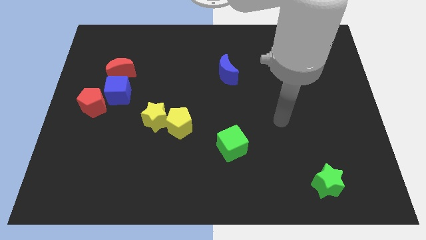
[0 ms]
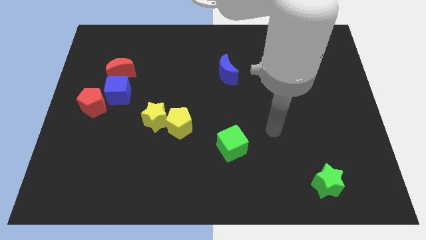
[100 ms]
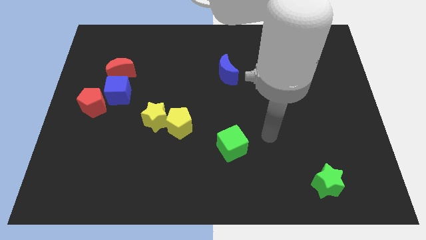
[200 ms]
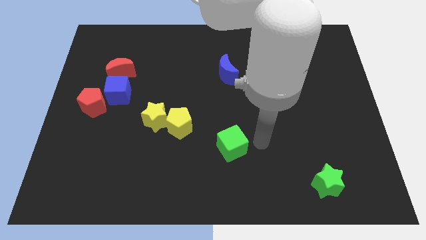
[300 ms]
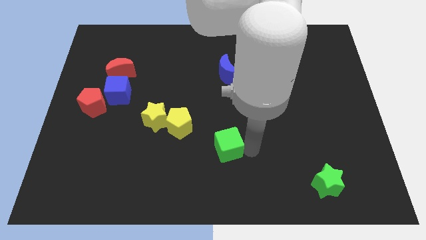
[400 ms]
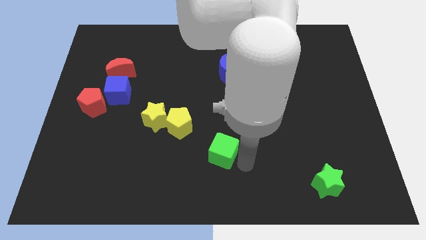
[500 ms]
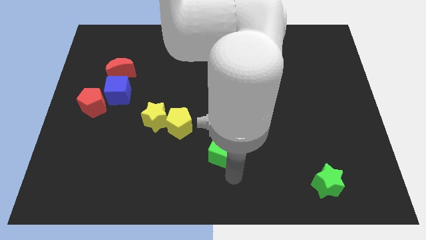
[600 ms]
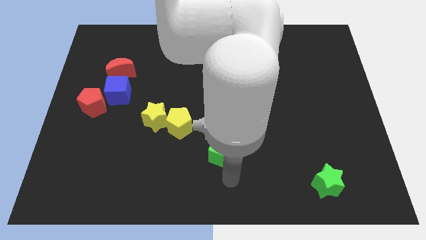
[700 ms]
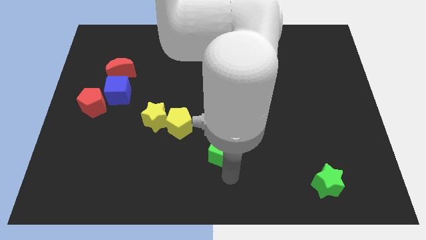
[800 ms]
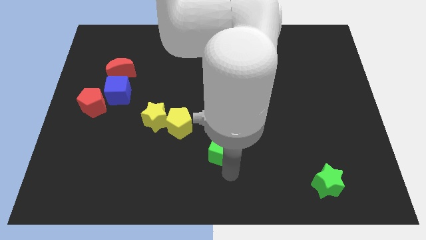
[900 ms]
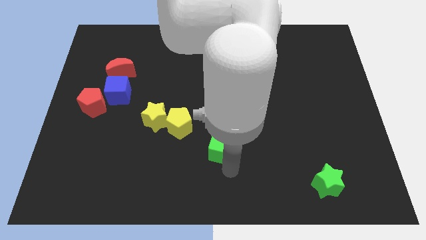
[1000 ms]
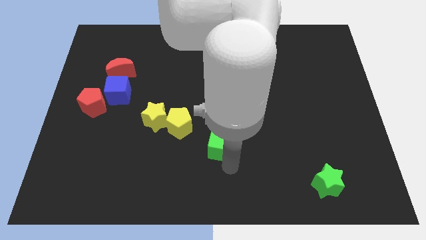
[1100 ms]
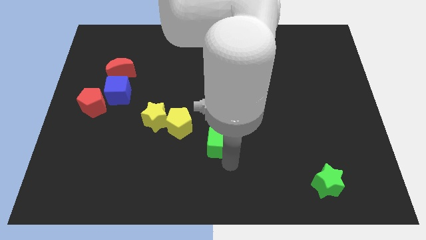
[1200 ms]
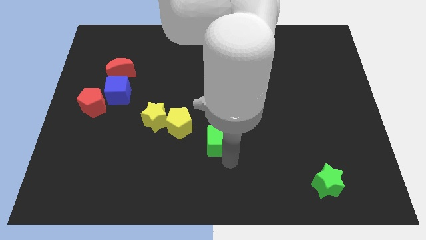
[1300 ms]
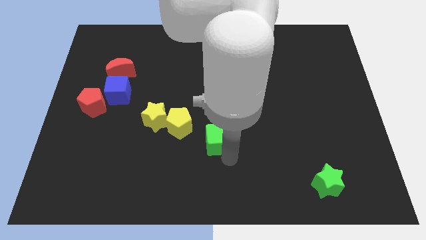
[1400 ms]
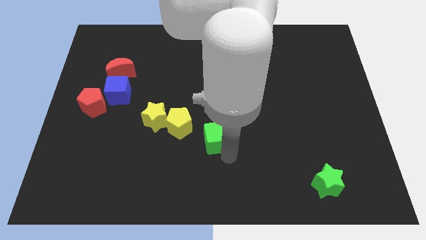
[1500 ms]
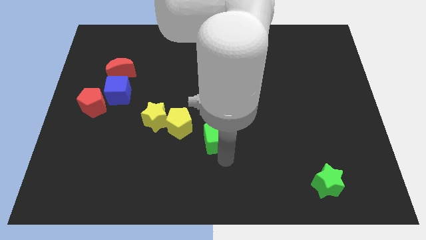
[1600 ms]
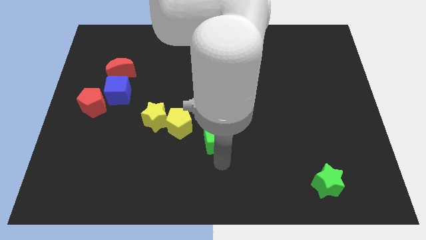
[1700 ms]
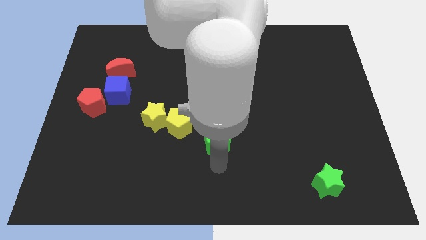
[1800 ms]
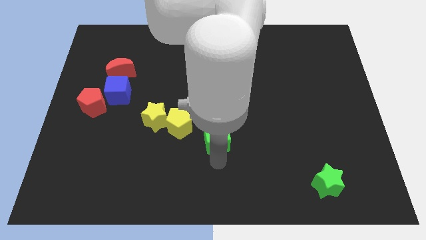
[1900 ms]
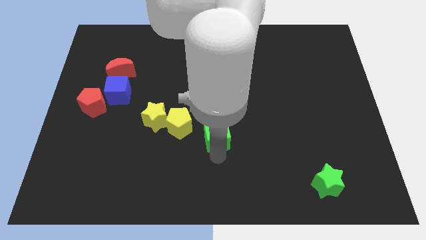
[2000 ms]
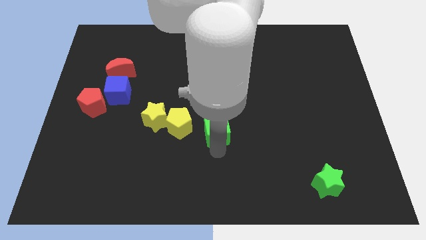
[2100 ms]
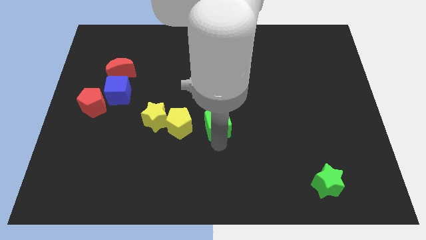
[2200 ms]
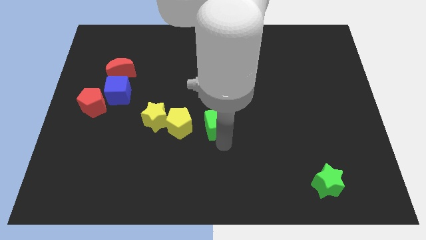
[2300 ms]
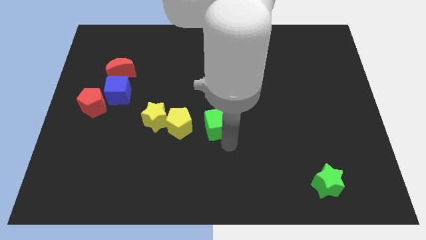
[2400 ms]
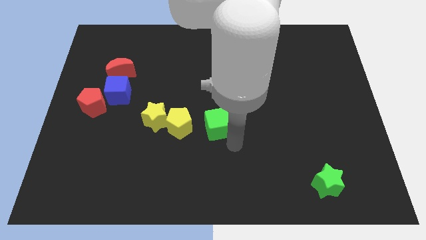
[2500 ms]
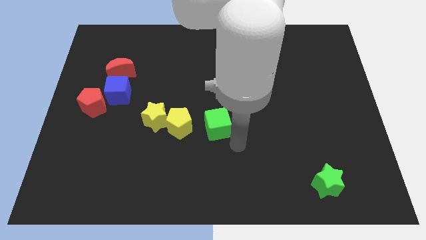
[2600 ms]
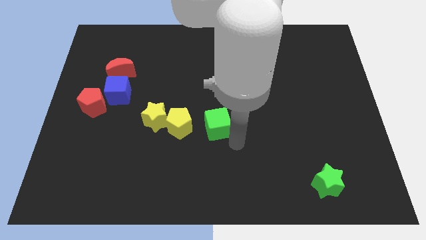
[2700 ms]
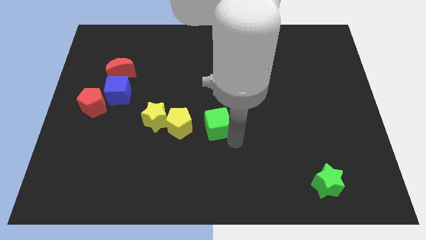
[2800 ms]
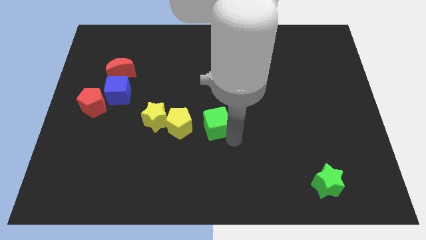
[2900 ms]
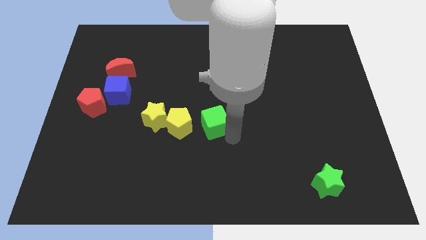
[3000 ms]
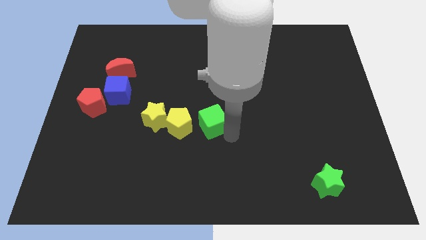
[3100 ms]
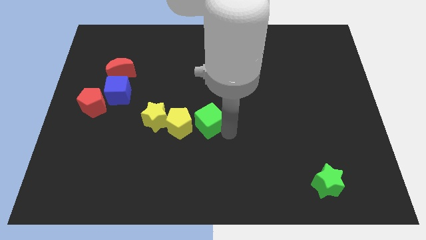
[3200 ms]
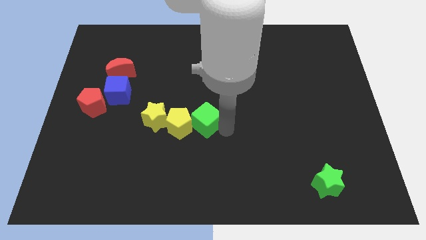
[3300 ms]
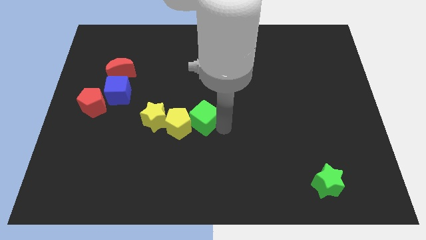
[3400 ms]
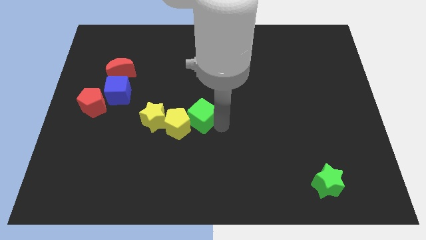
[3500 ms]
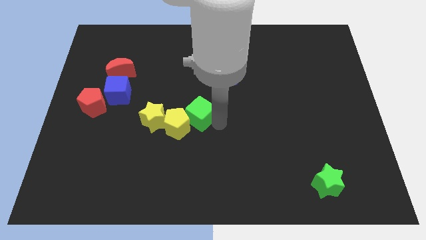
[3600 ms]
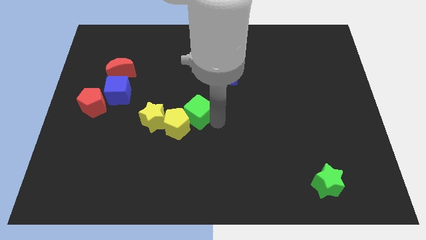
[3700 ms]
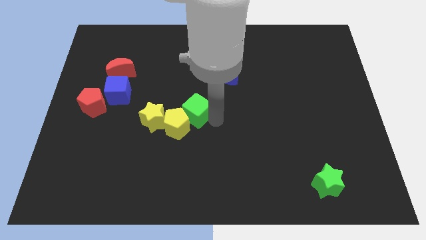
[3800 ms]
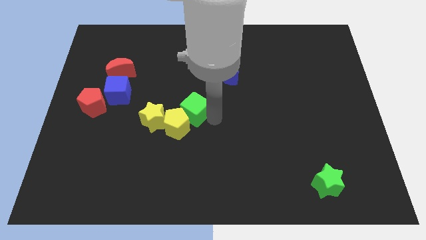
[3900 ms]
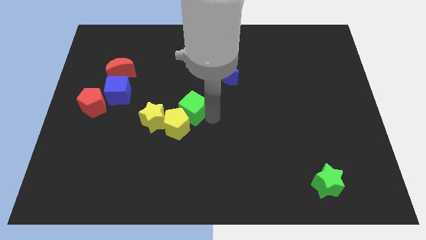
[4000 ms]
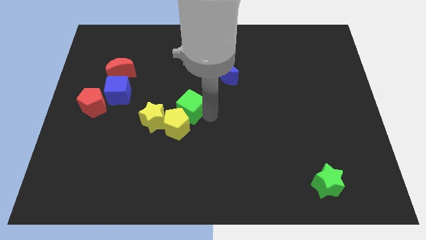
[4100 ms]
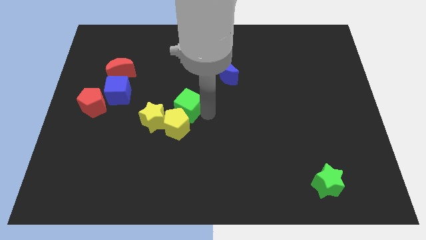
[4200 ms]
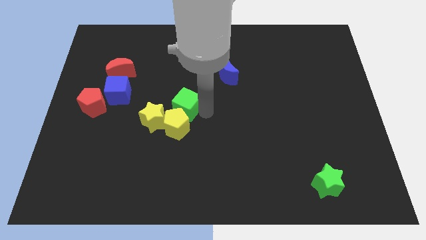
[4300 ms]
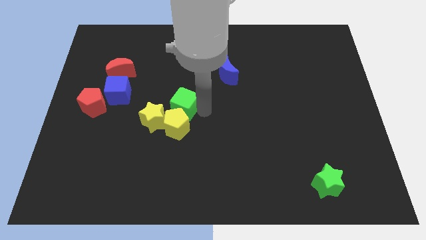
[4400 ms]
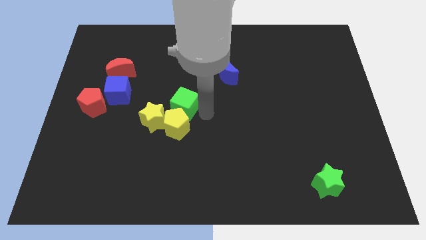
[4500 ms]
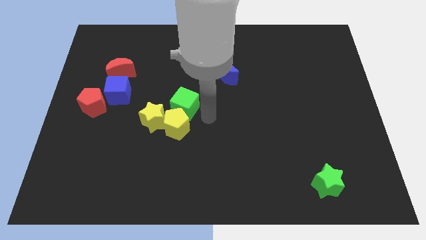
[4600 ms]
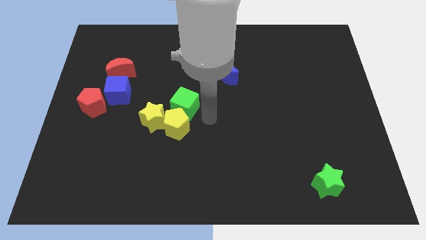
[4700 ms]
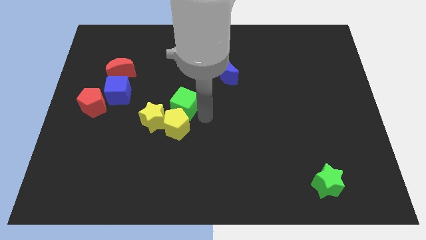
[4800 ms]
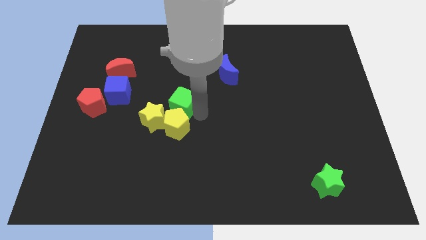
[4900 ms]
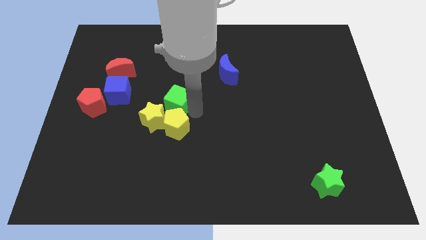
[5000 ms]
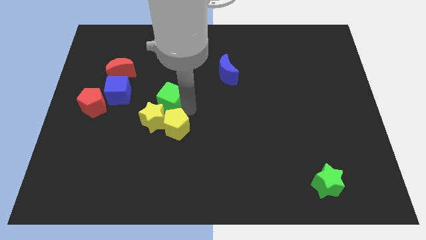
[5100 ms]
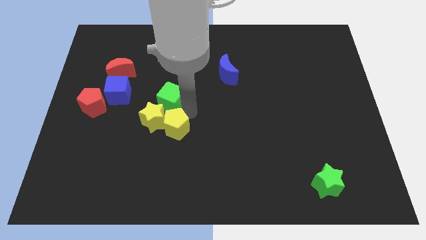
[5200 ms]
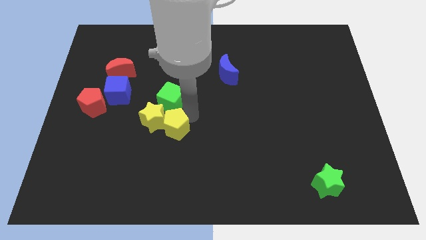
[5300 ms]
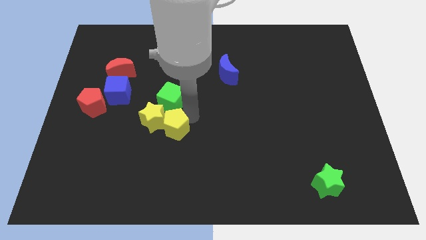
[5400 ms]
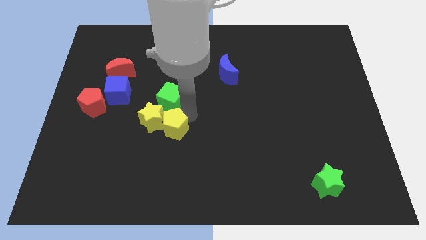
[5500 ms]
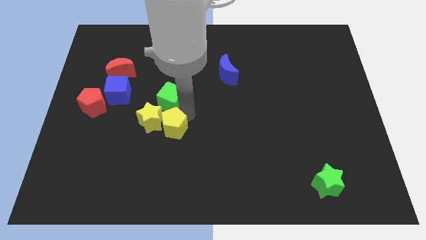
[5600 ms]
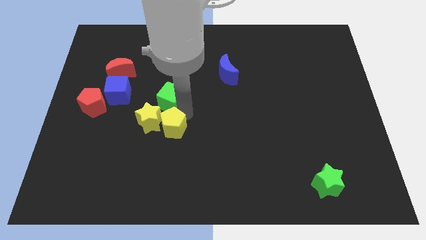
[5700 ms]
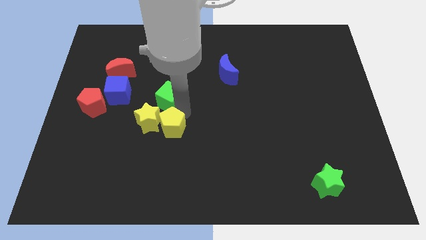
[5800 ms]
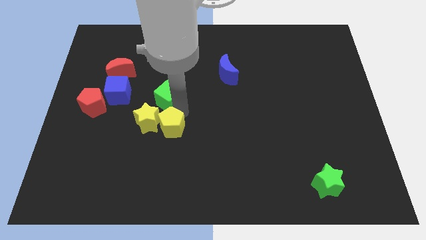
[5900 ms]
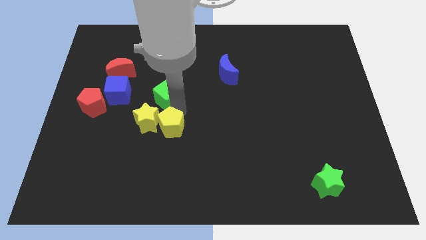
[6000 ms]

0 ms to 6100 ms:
move the green cube upwards and to the left

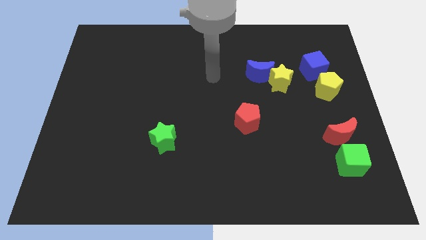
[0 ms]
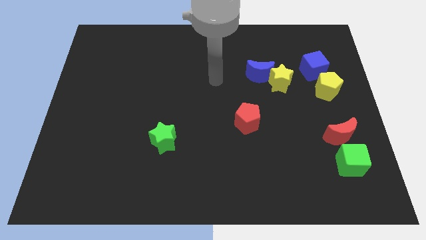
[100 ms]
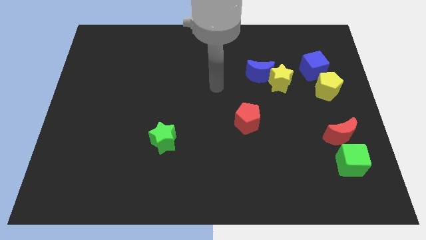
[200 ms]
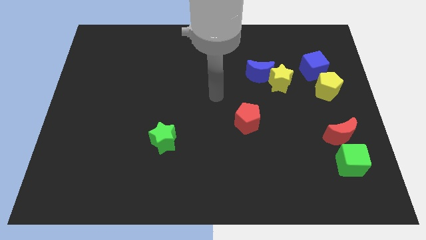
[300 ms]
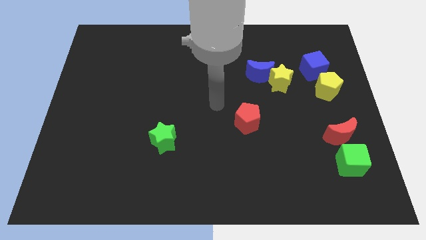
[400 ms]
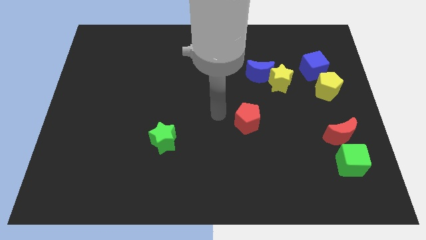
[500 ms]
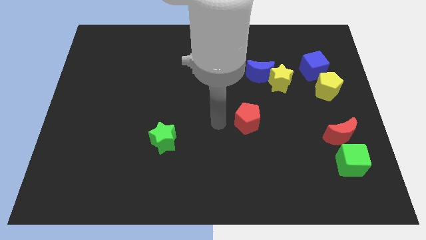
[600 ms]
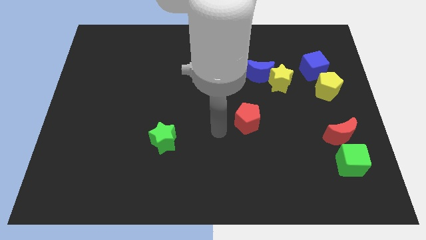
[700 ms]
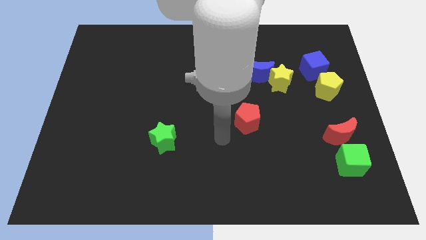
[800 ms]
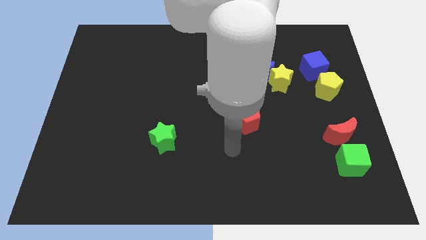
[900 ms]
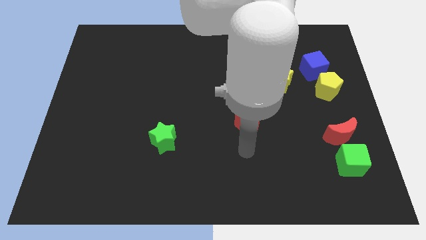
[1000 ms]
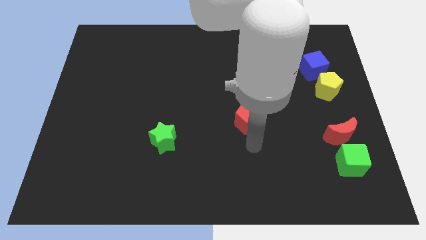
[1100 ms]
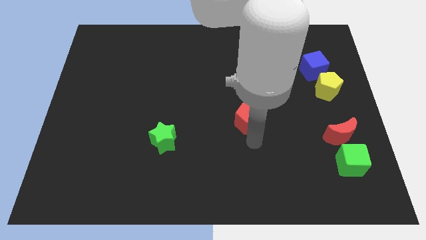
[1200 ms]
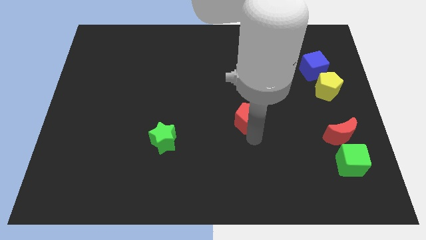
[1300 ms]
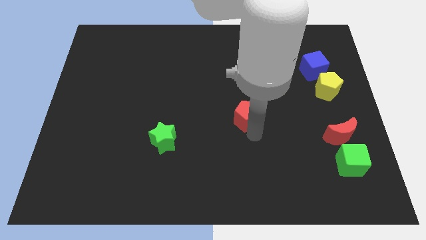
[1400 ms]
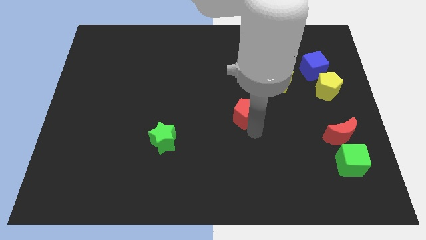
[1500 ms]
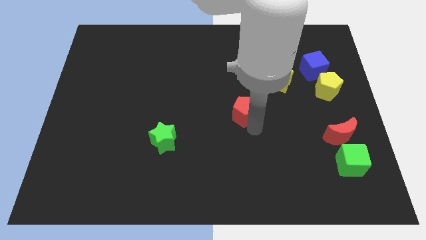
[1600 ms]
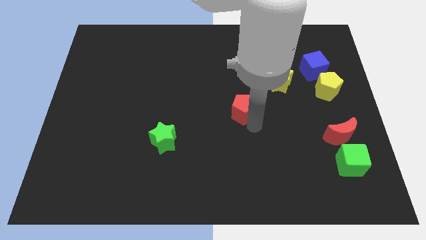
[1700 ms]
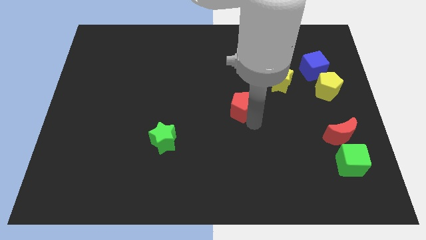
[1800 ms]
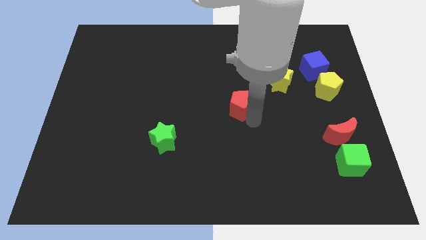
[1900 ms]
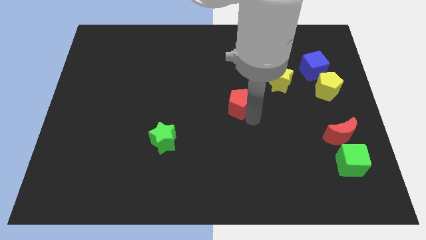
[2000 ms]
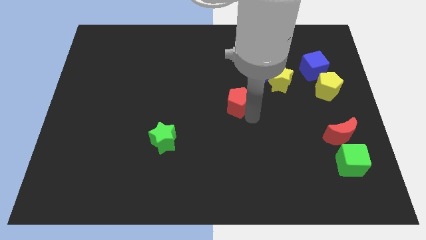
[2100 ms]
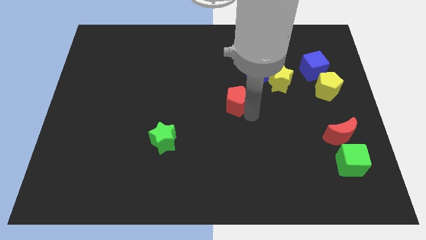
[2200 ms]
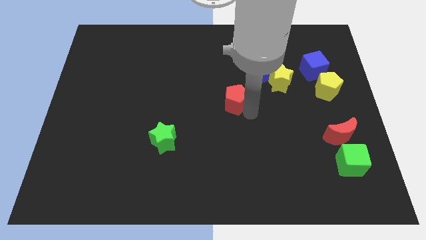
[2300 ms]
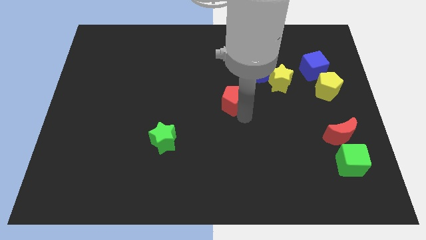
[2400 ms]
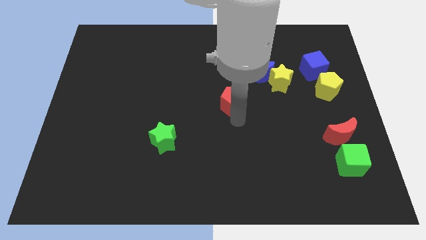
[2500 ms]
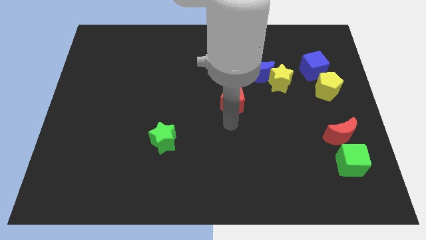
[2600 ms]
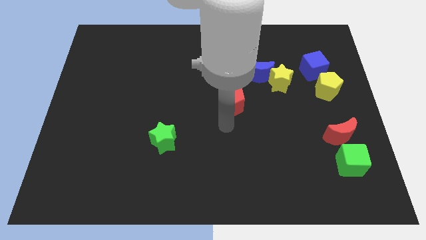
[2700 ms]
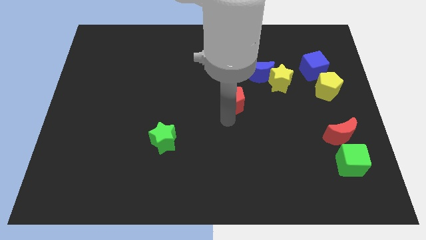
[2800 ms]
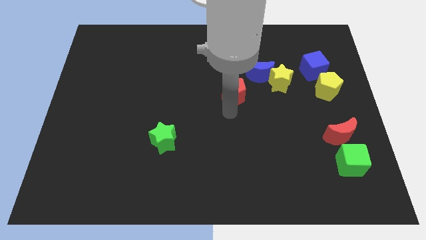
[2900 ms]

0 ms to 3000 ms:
slide the red pentagon upwards a little bit
